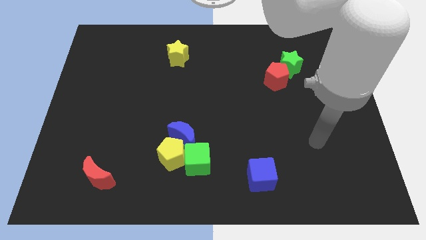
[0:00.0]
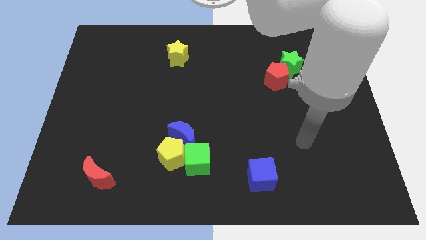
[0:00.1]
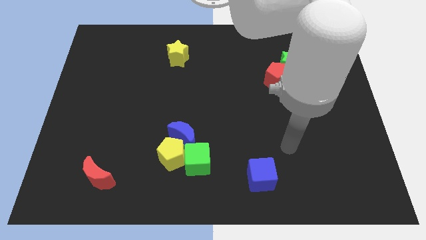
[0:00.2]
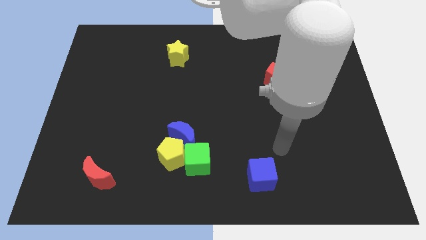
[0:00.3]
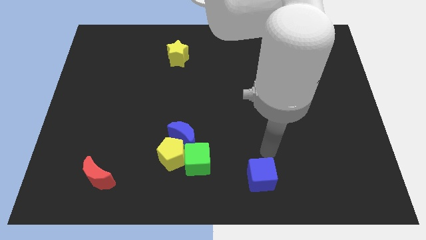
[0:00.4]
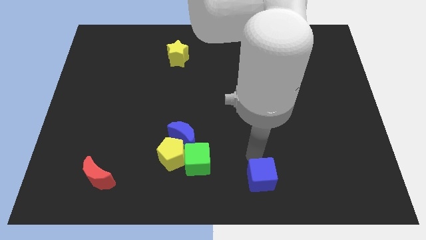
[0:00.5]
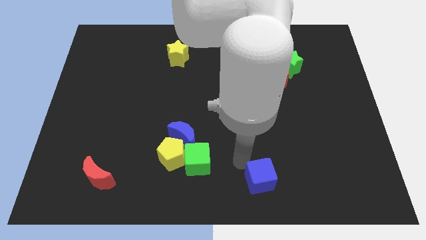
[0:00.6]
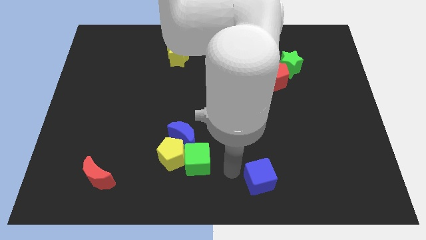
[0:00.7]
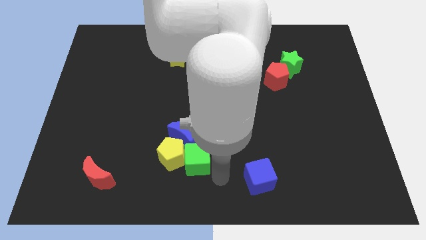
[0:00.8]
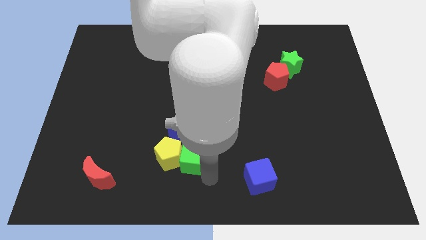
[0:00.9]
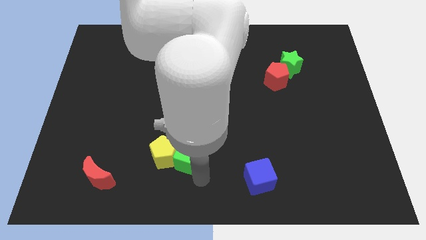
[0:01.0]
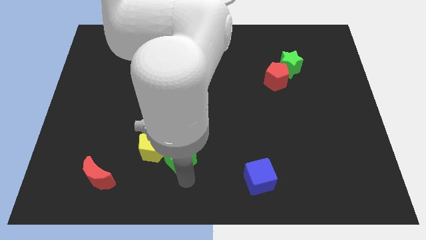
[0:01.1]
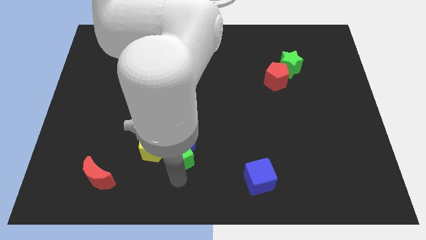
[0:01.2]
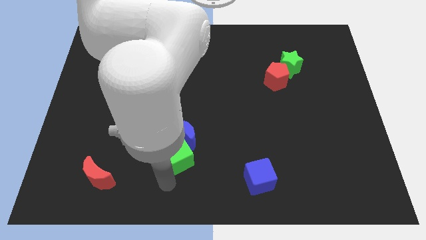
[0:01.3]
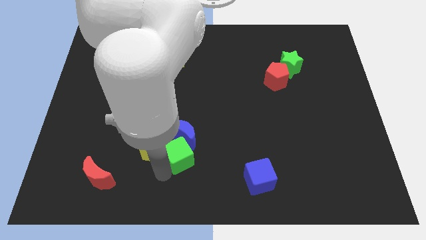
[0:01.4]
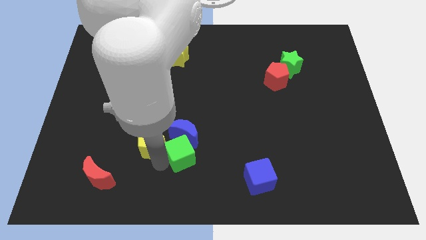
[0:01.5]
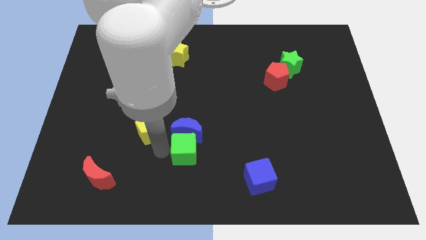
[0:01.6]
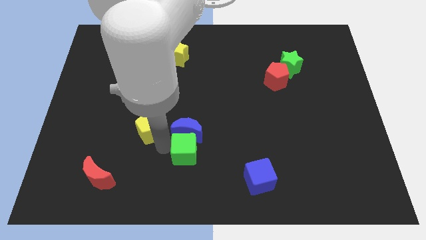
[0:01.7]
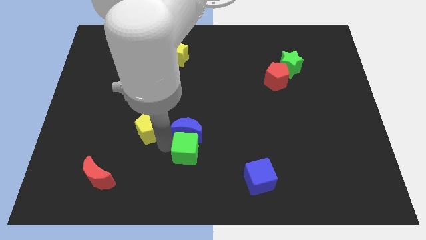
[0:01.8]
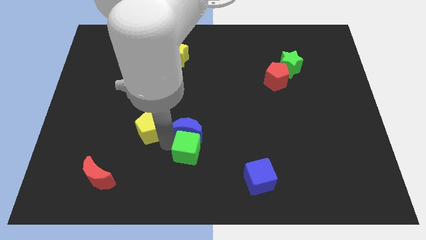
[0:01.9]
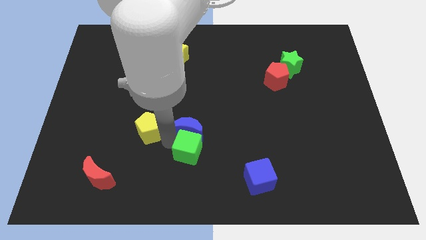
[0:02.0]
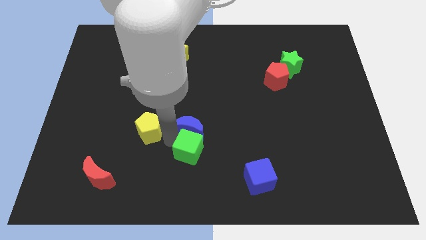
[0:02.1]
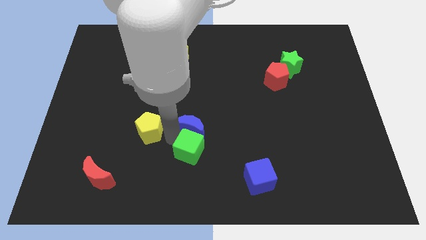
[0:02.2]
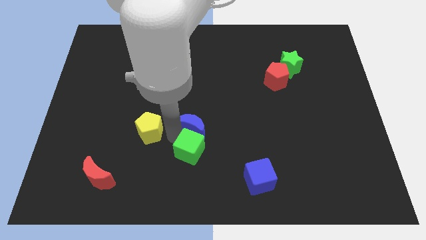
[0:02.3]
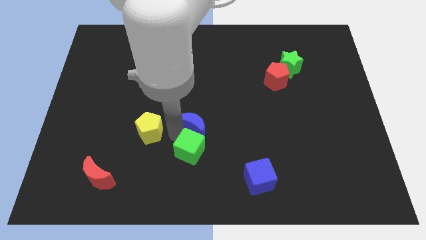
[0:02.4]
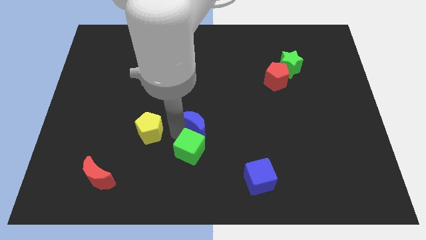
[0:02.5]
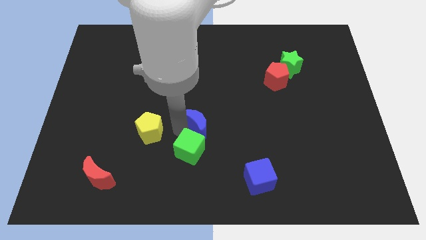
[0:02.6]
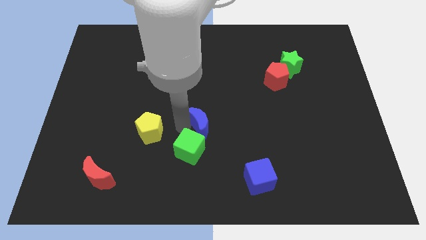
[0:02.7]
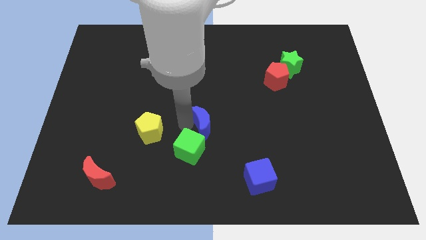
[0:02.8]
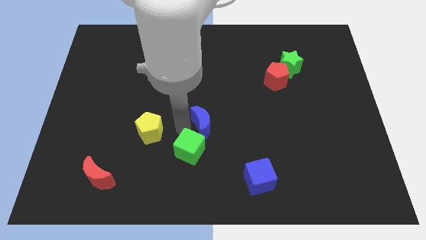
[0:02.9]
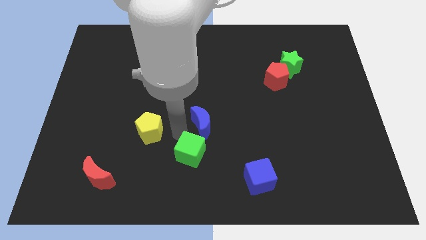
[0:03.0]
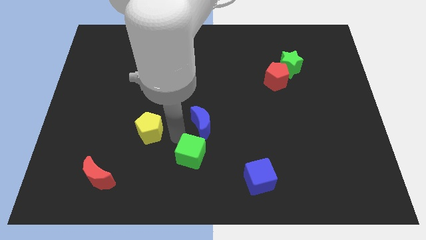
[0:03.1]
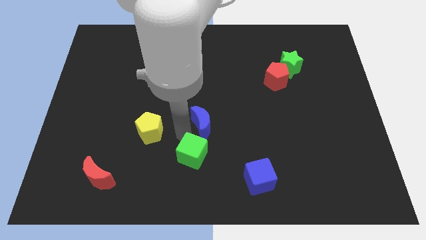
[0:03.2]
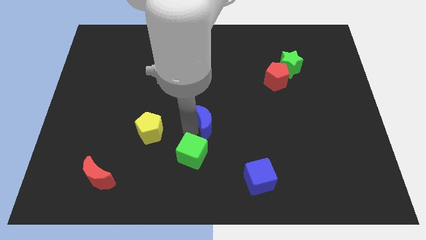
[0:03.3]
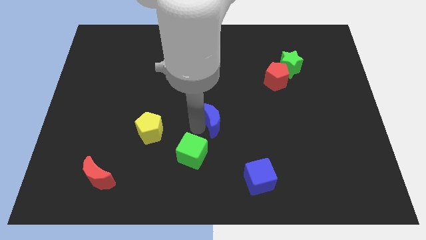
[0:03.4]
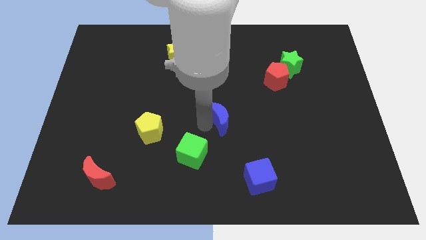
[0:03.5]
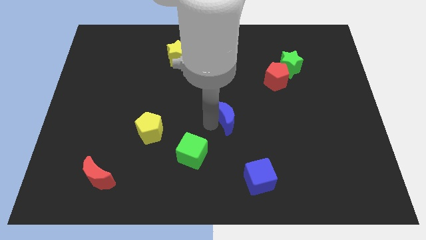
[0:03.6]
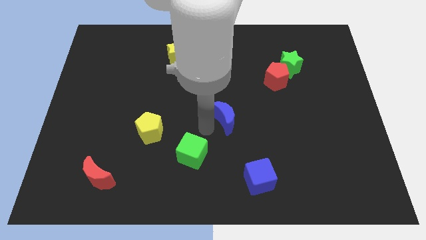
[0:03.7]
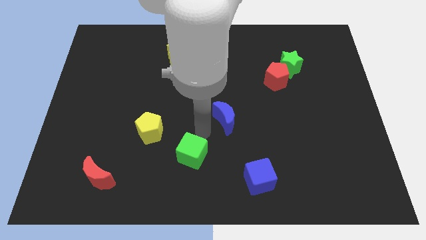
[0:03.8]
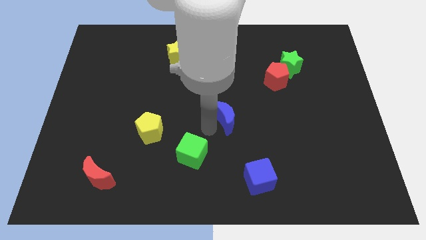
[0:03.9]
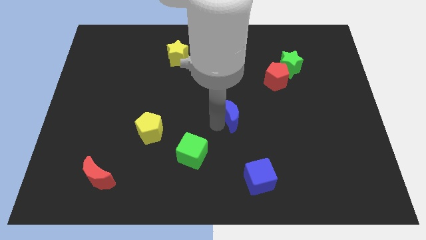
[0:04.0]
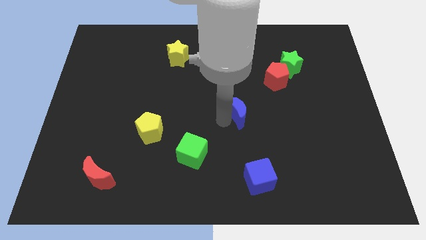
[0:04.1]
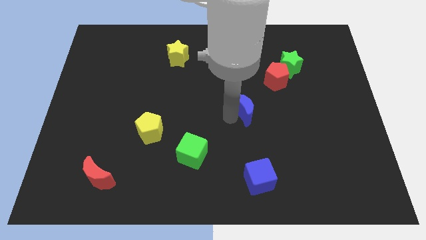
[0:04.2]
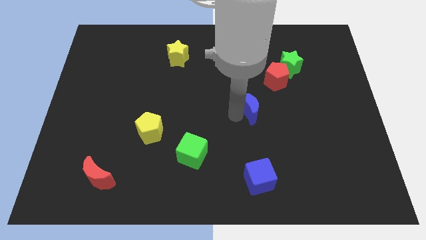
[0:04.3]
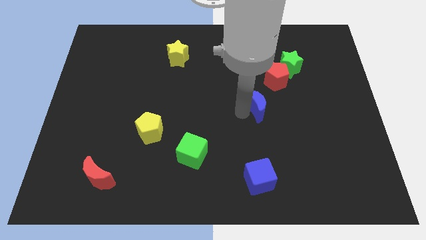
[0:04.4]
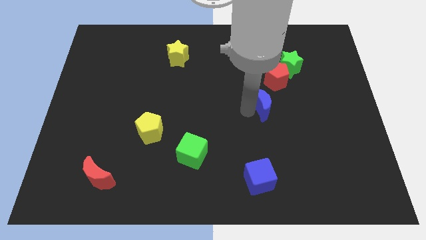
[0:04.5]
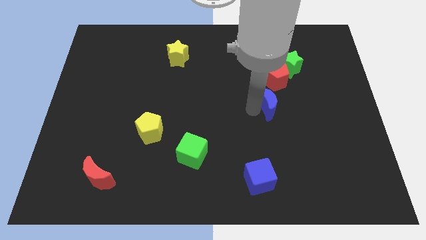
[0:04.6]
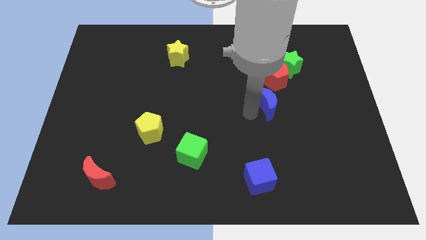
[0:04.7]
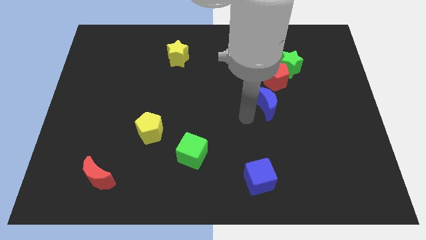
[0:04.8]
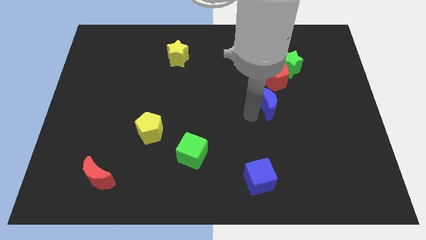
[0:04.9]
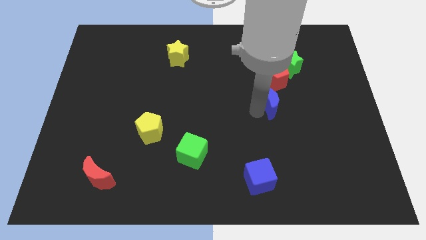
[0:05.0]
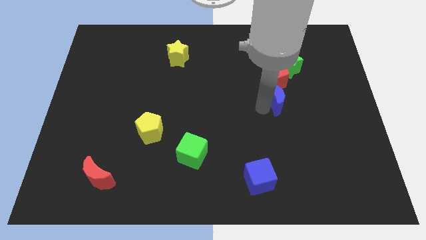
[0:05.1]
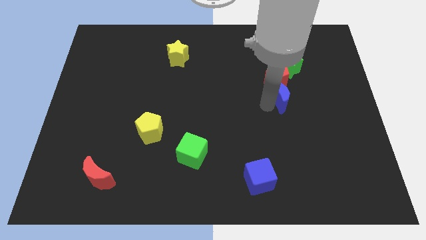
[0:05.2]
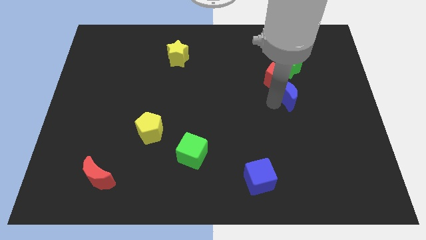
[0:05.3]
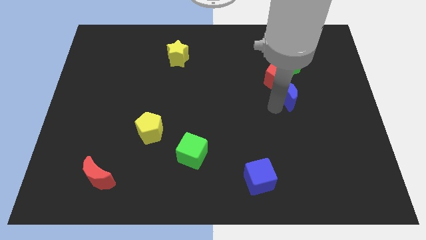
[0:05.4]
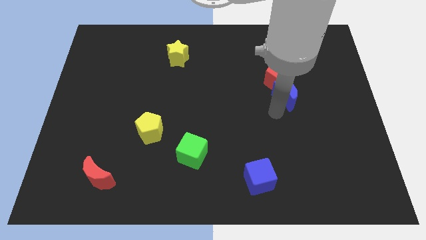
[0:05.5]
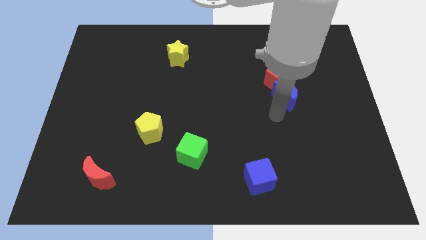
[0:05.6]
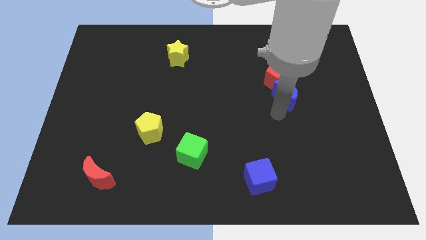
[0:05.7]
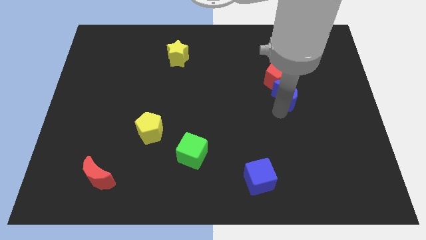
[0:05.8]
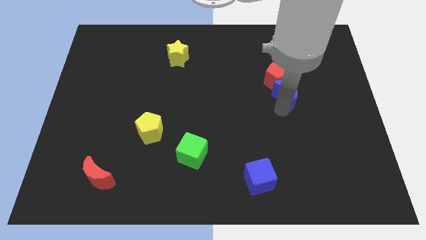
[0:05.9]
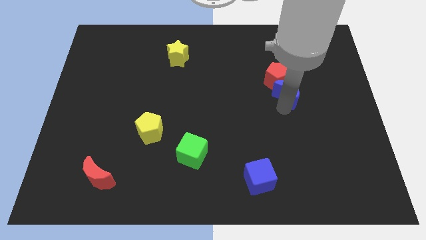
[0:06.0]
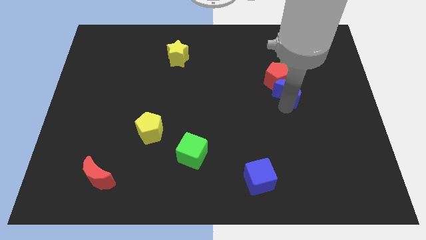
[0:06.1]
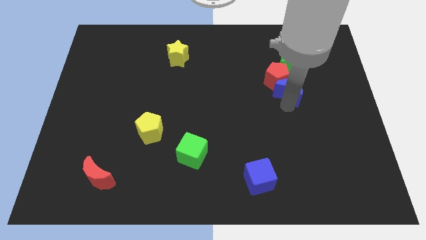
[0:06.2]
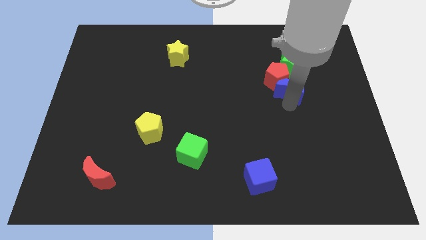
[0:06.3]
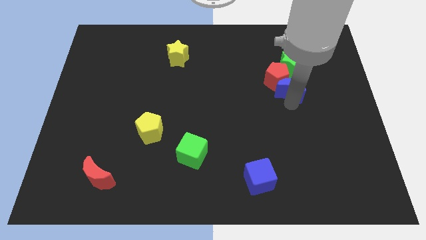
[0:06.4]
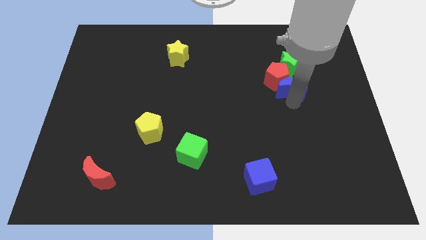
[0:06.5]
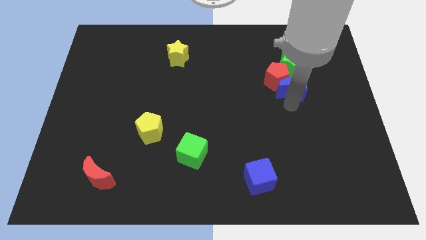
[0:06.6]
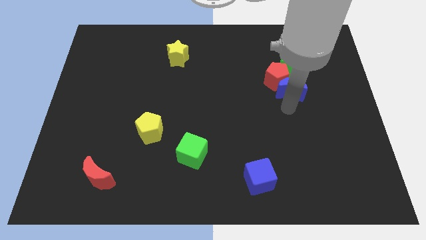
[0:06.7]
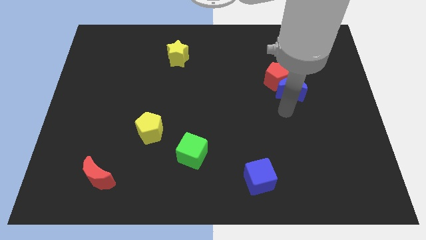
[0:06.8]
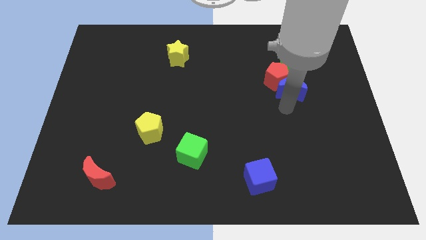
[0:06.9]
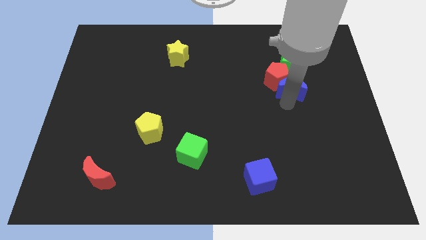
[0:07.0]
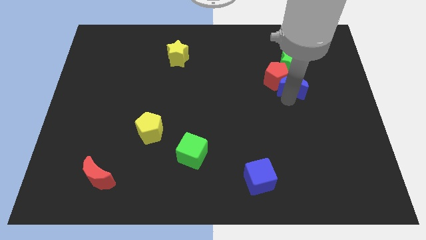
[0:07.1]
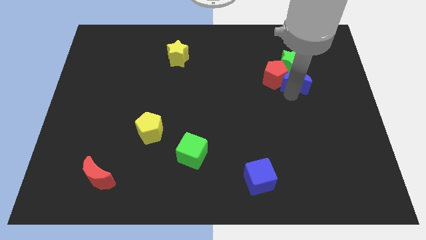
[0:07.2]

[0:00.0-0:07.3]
put the blue moon next to the green star
